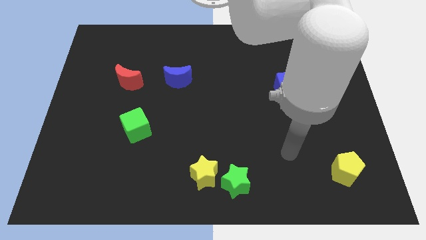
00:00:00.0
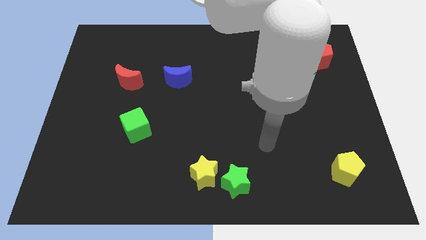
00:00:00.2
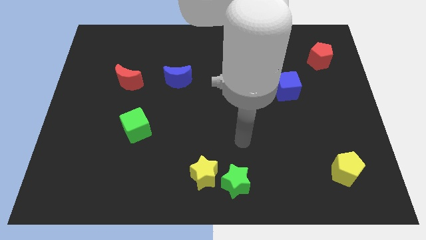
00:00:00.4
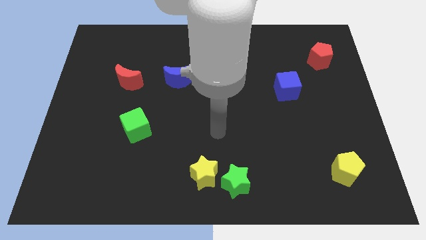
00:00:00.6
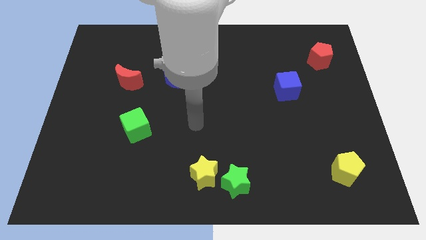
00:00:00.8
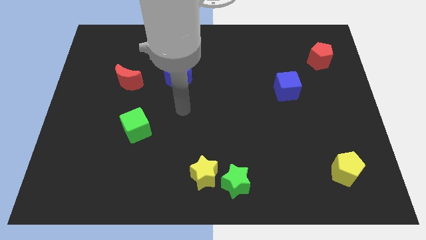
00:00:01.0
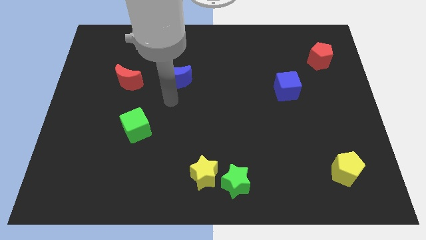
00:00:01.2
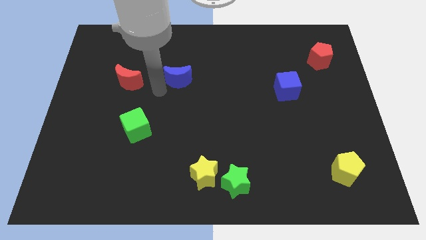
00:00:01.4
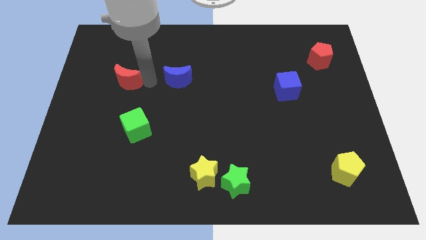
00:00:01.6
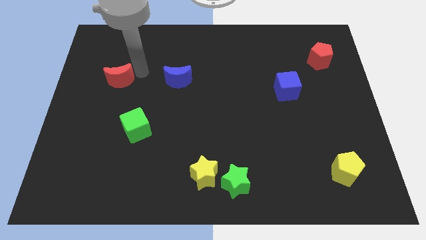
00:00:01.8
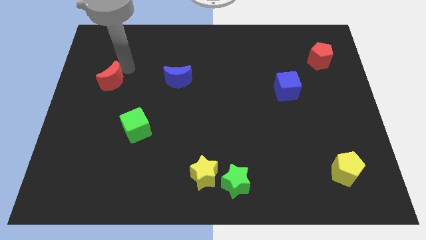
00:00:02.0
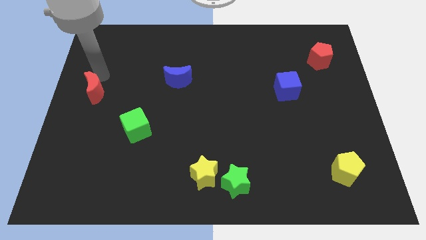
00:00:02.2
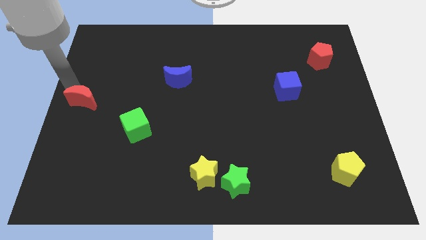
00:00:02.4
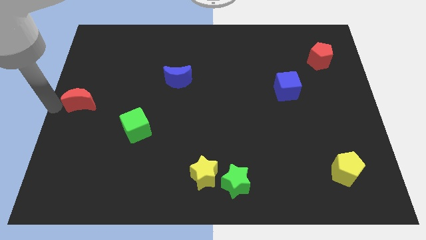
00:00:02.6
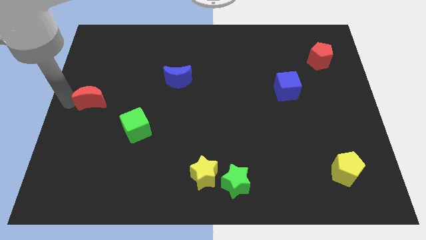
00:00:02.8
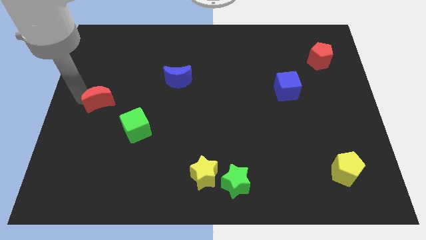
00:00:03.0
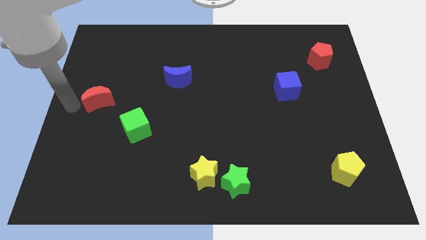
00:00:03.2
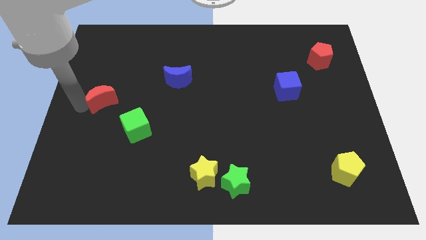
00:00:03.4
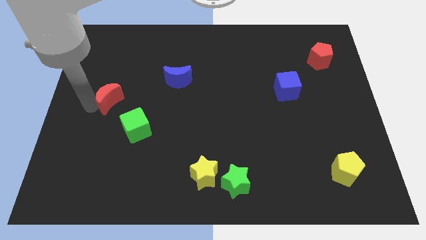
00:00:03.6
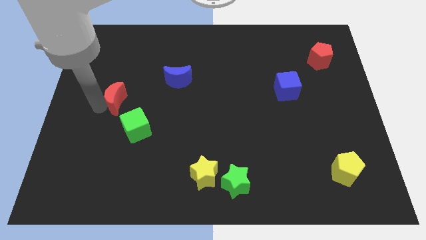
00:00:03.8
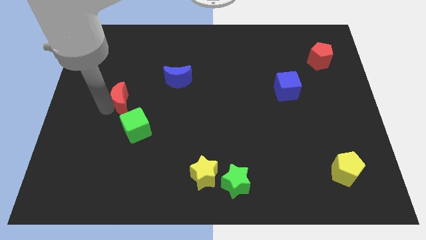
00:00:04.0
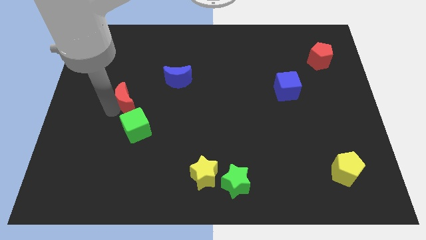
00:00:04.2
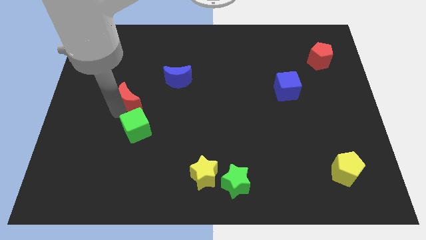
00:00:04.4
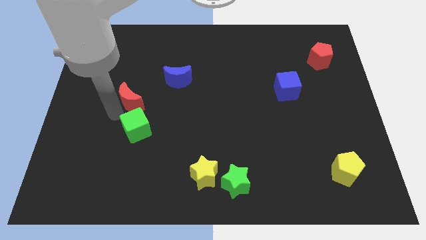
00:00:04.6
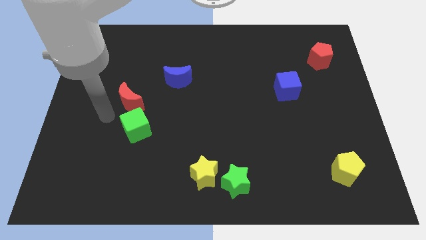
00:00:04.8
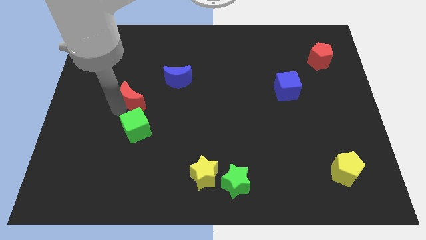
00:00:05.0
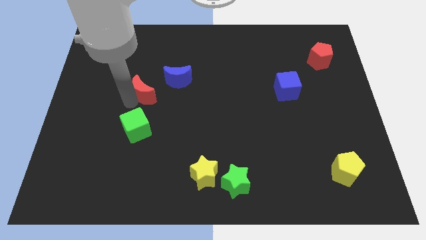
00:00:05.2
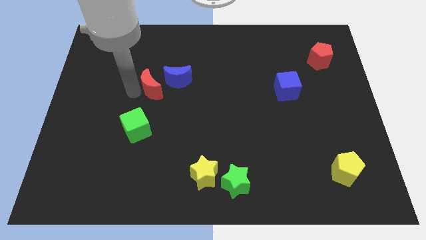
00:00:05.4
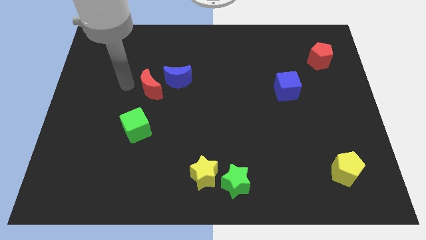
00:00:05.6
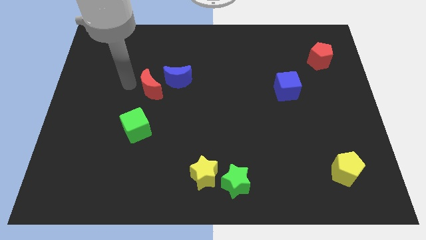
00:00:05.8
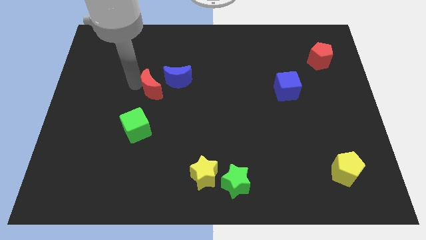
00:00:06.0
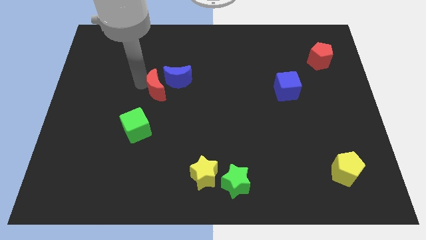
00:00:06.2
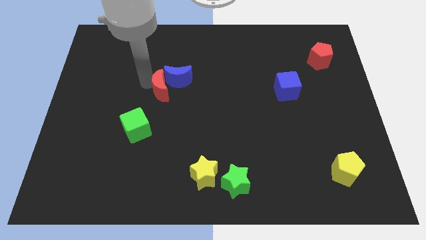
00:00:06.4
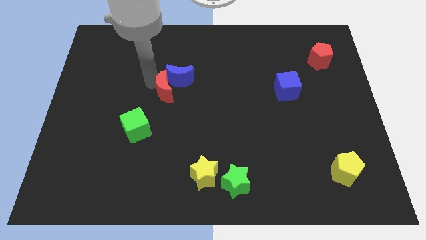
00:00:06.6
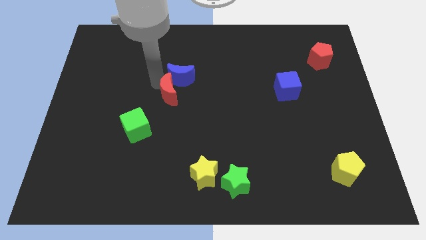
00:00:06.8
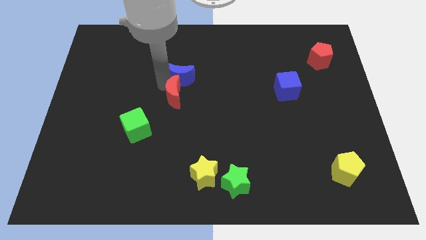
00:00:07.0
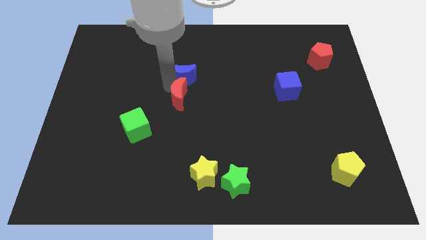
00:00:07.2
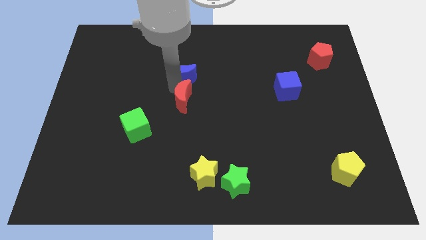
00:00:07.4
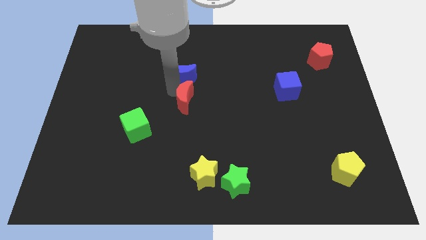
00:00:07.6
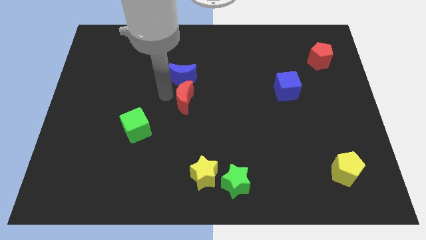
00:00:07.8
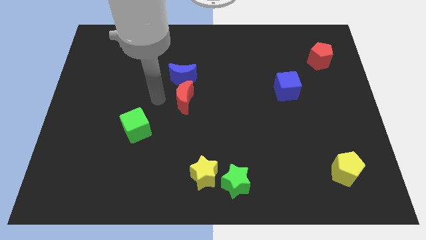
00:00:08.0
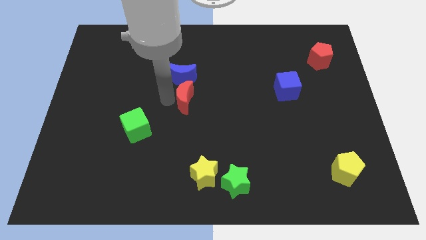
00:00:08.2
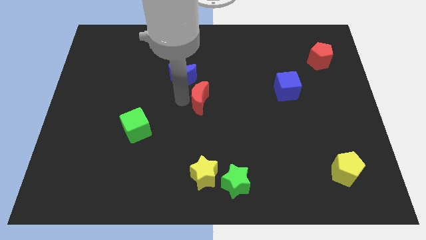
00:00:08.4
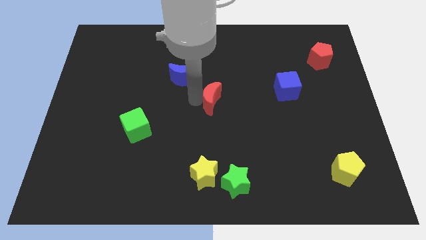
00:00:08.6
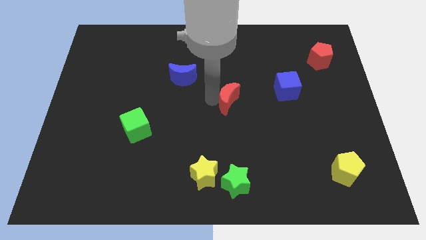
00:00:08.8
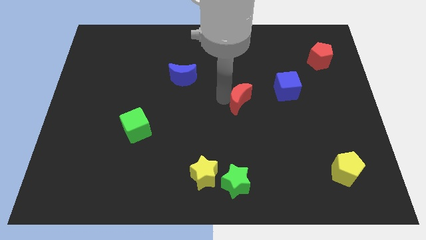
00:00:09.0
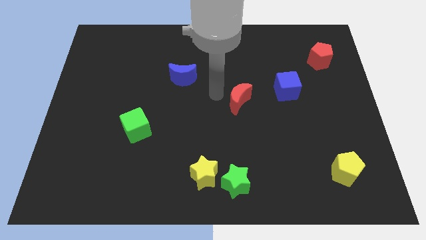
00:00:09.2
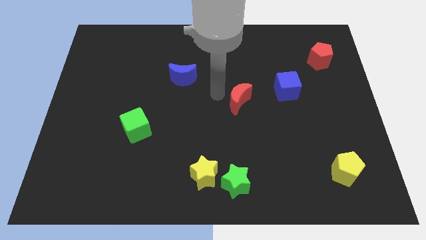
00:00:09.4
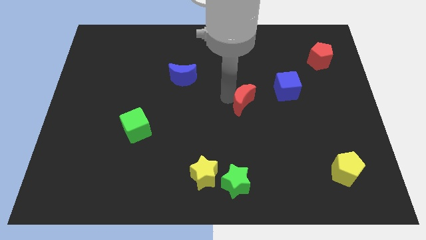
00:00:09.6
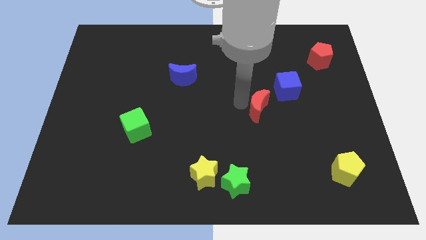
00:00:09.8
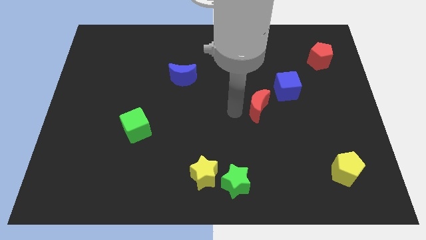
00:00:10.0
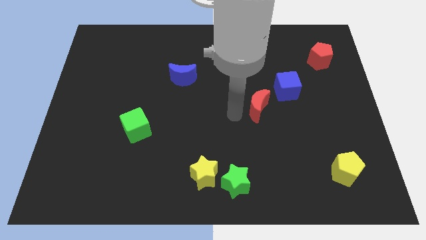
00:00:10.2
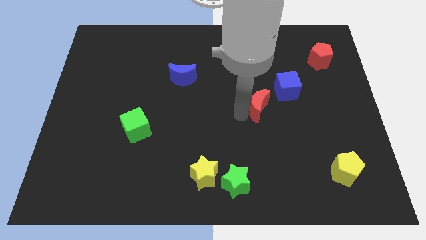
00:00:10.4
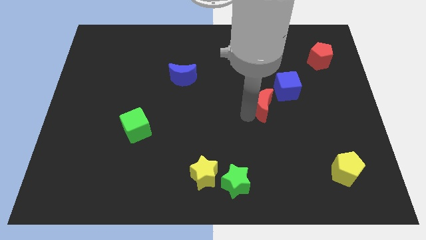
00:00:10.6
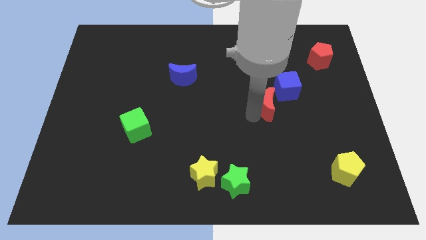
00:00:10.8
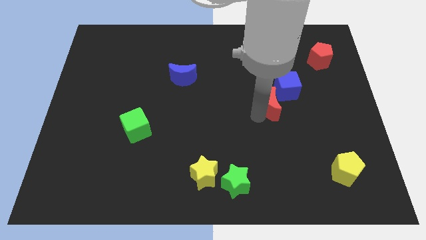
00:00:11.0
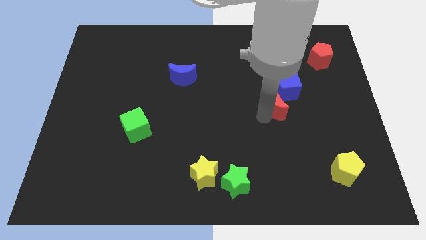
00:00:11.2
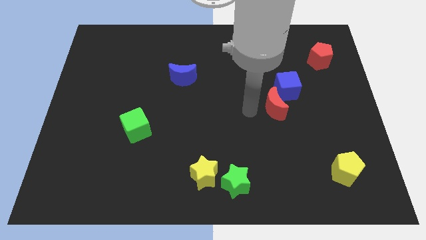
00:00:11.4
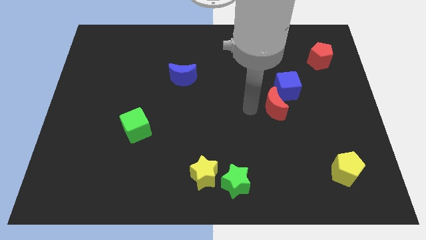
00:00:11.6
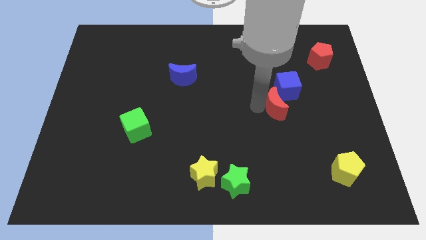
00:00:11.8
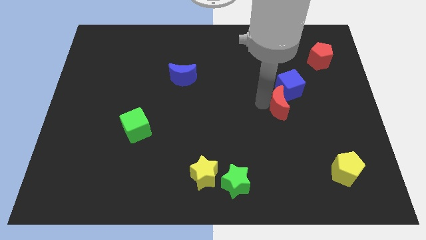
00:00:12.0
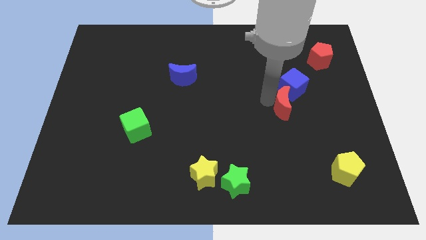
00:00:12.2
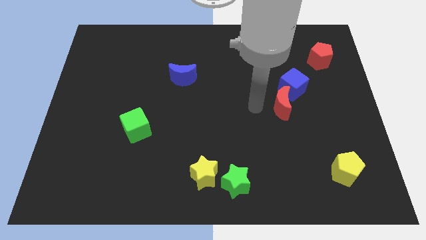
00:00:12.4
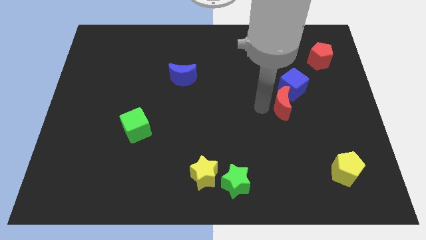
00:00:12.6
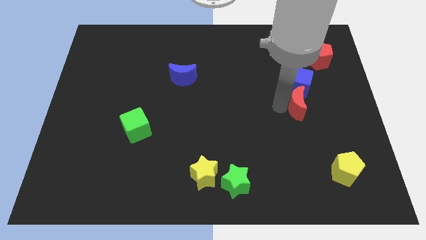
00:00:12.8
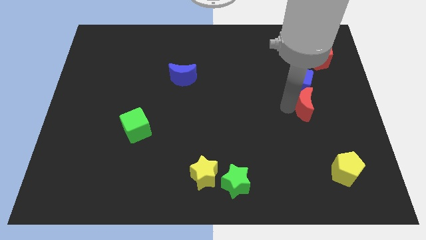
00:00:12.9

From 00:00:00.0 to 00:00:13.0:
move the red moon diagonally down and to the right of the blue cube

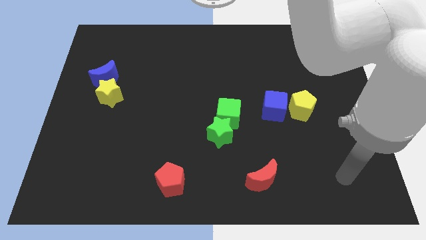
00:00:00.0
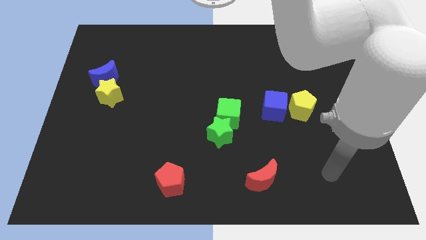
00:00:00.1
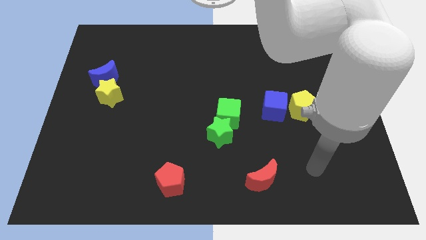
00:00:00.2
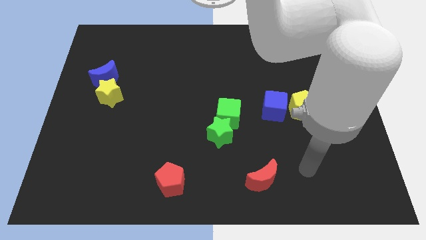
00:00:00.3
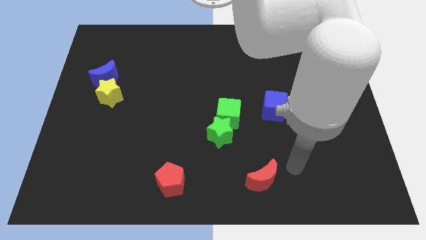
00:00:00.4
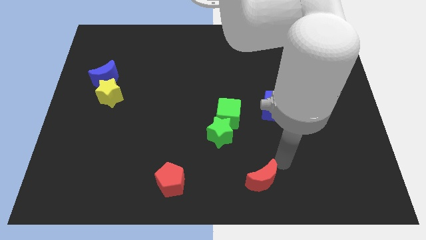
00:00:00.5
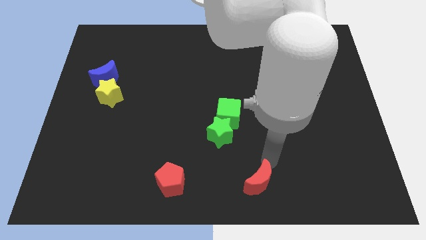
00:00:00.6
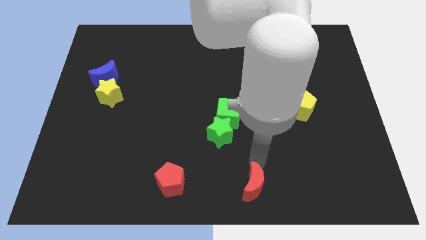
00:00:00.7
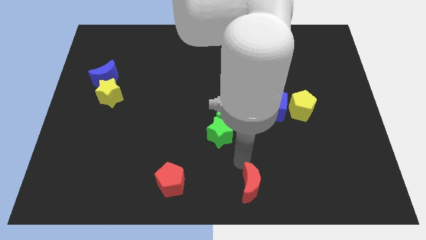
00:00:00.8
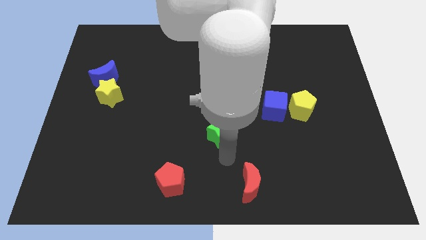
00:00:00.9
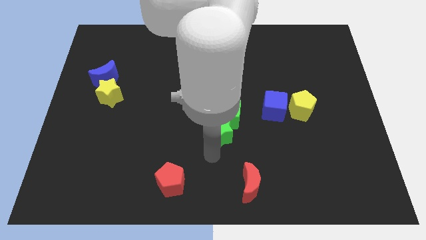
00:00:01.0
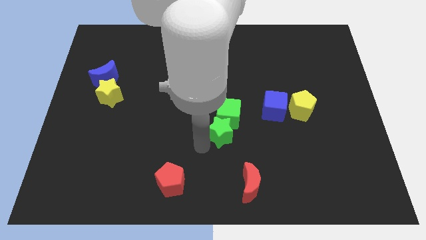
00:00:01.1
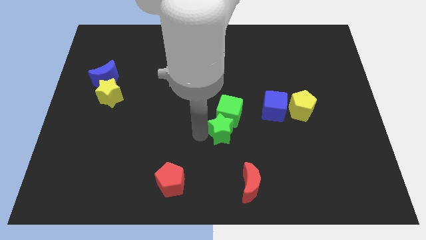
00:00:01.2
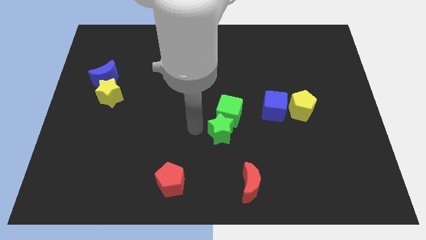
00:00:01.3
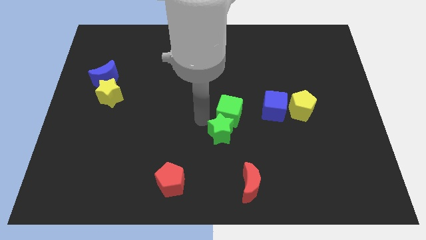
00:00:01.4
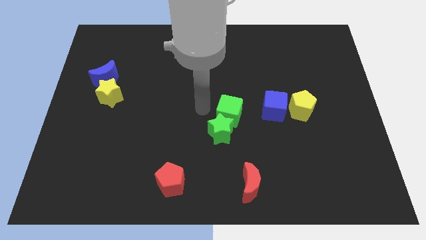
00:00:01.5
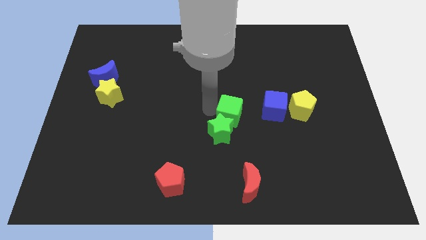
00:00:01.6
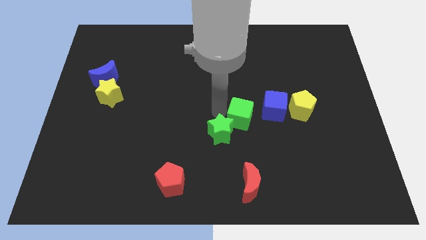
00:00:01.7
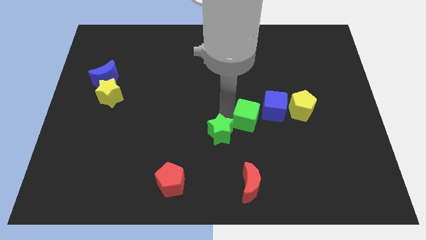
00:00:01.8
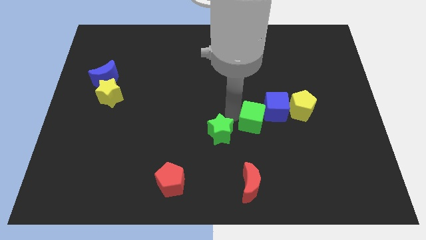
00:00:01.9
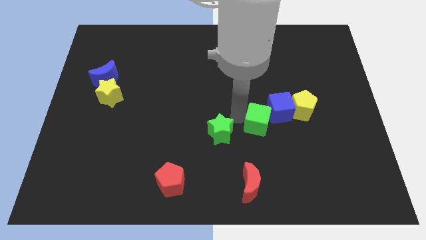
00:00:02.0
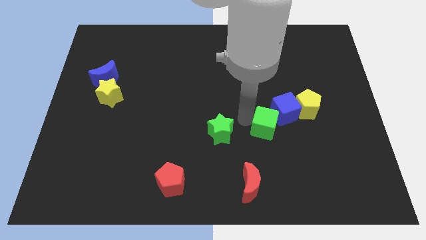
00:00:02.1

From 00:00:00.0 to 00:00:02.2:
push the green cube diagonally down and to the left of the yellow pentagon
